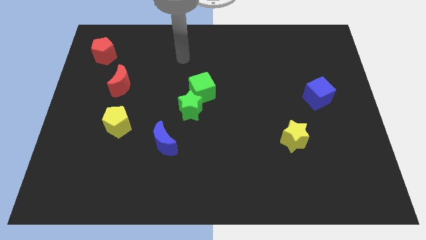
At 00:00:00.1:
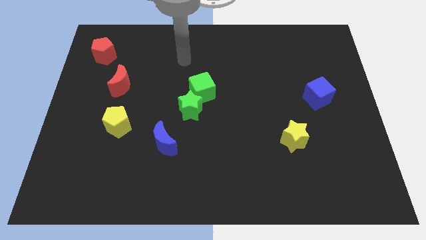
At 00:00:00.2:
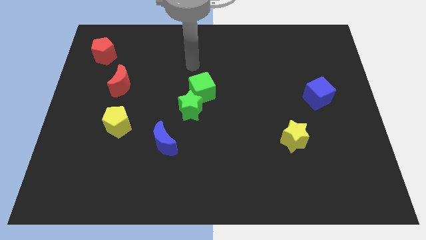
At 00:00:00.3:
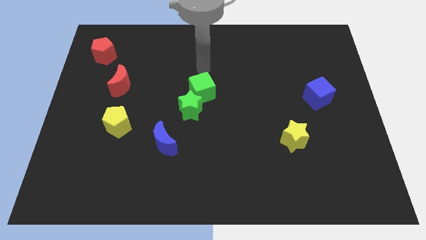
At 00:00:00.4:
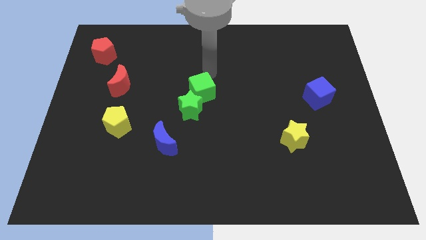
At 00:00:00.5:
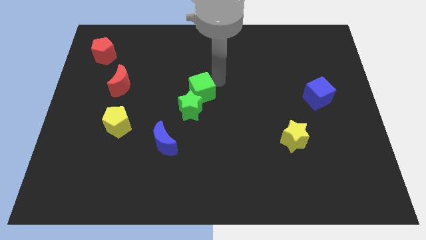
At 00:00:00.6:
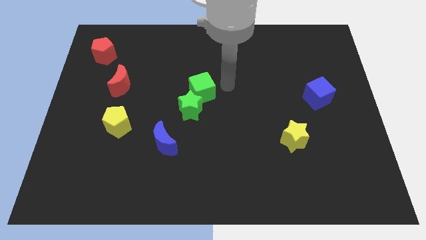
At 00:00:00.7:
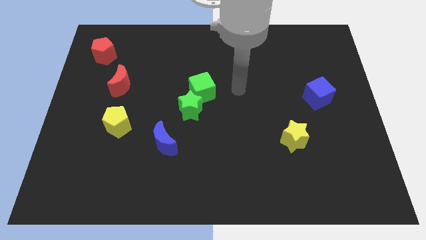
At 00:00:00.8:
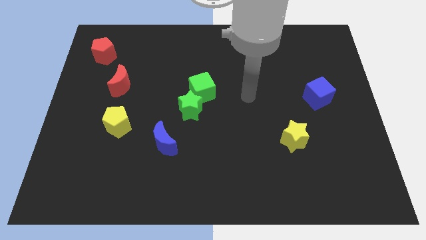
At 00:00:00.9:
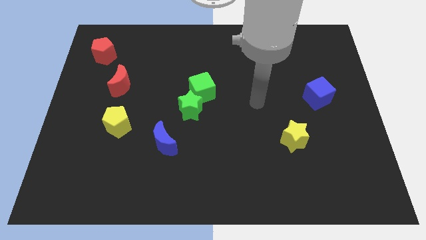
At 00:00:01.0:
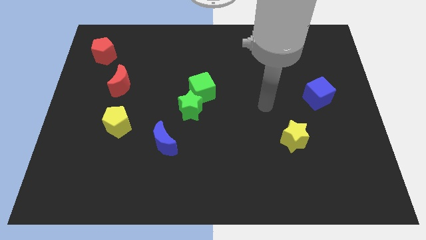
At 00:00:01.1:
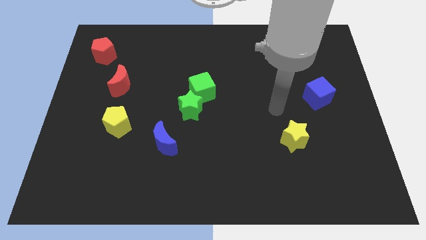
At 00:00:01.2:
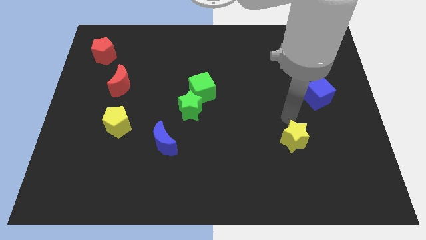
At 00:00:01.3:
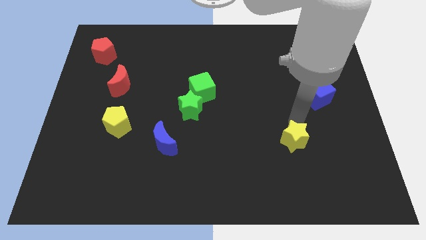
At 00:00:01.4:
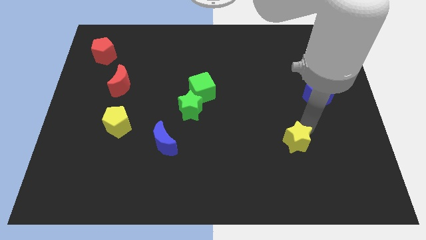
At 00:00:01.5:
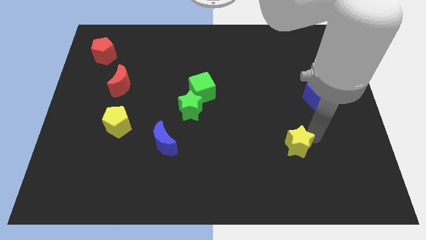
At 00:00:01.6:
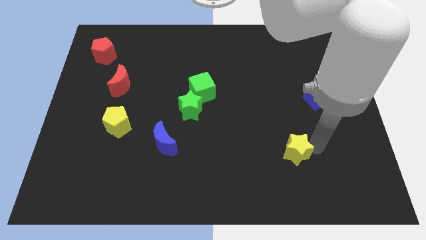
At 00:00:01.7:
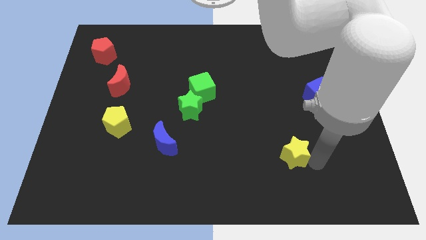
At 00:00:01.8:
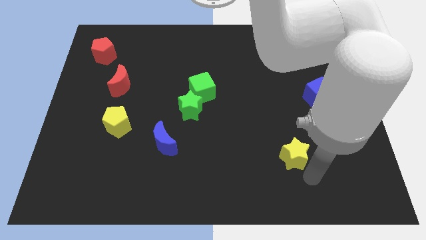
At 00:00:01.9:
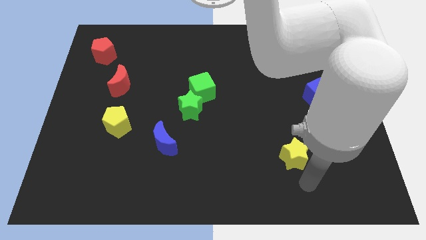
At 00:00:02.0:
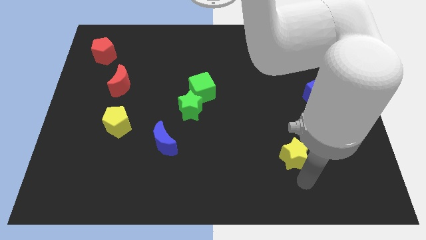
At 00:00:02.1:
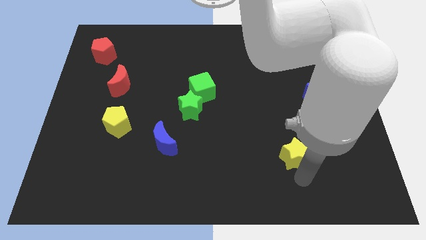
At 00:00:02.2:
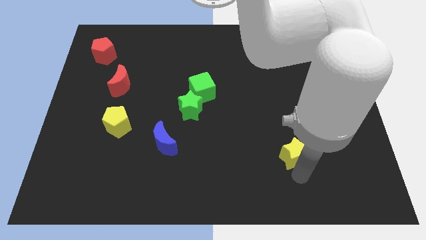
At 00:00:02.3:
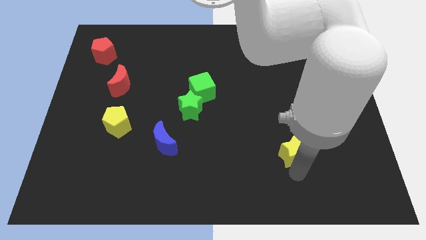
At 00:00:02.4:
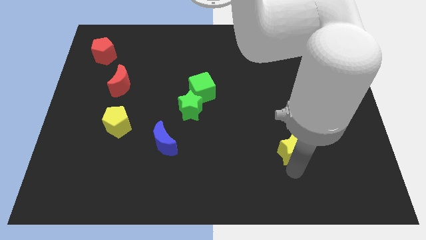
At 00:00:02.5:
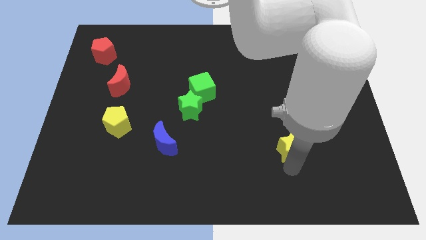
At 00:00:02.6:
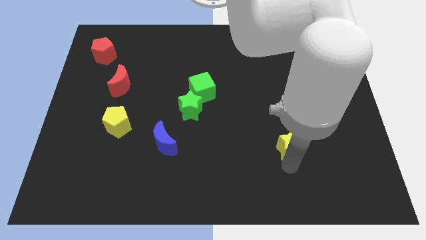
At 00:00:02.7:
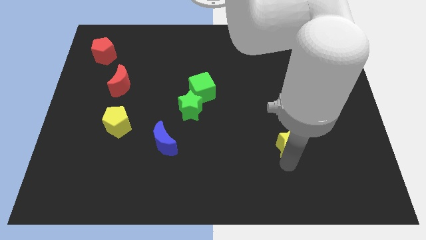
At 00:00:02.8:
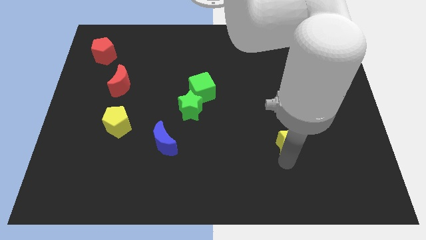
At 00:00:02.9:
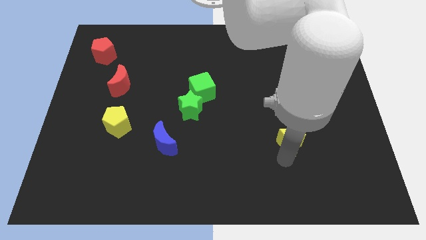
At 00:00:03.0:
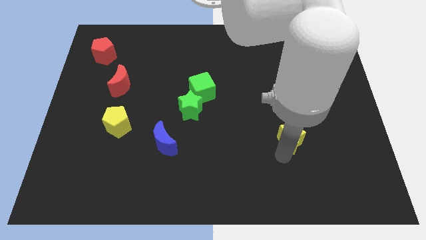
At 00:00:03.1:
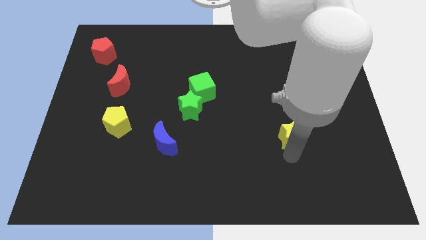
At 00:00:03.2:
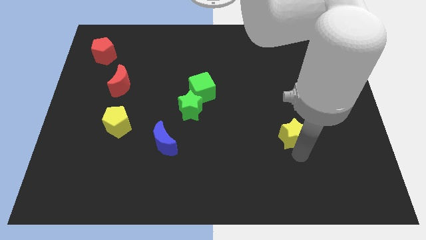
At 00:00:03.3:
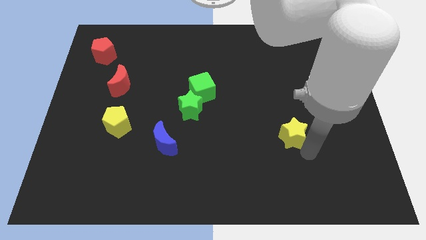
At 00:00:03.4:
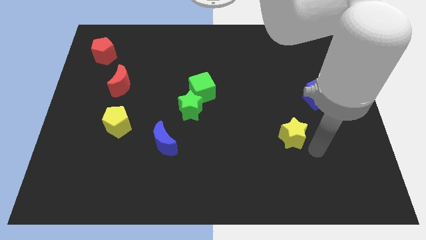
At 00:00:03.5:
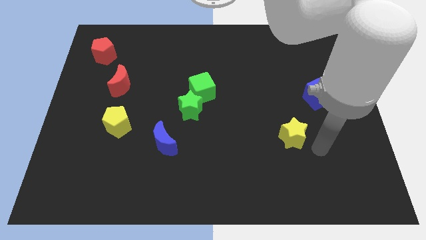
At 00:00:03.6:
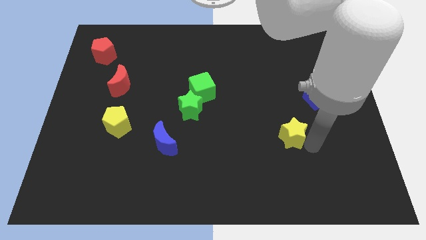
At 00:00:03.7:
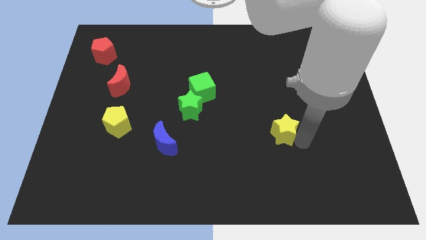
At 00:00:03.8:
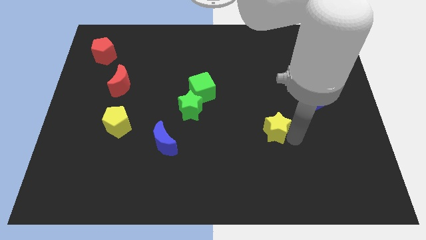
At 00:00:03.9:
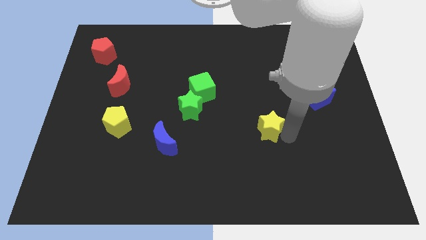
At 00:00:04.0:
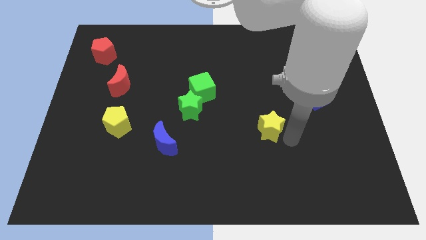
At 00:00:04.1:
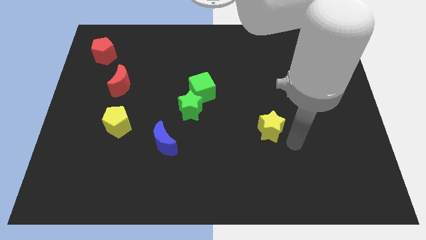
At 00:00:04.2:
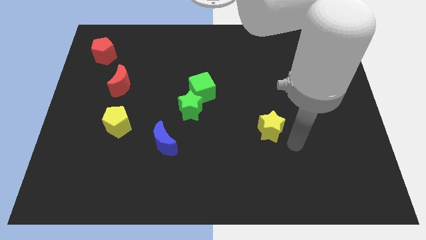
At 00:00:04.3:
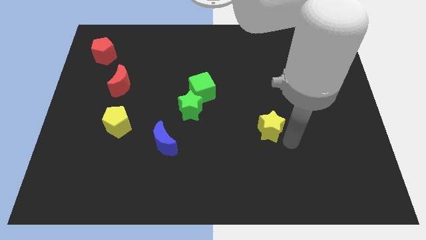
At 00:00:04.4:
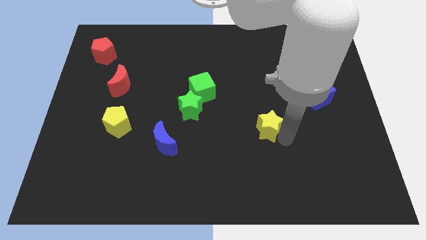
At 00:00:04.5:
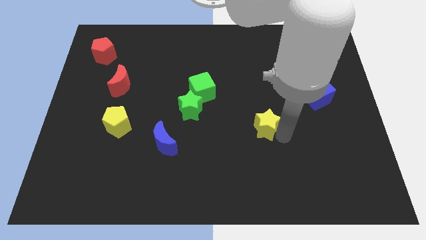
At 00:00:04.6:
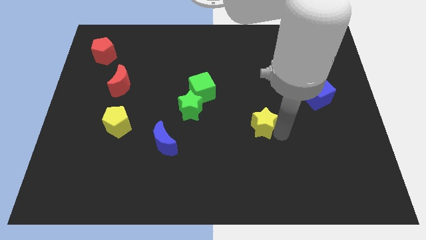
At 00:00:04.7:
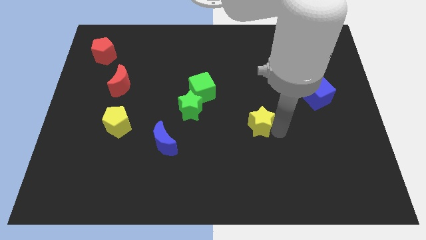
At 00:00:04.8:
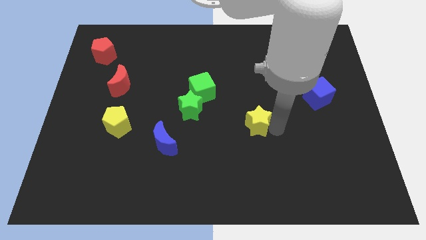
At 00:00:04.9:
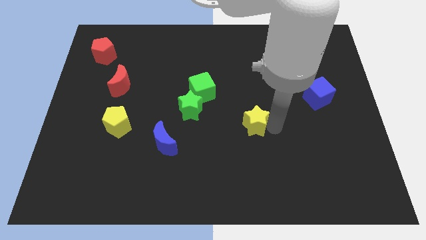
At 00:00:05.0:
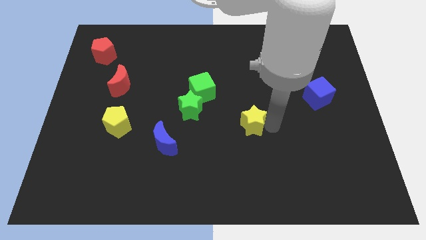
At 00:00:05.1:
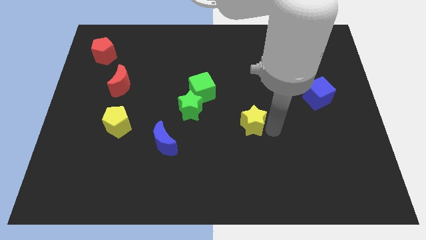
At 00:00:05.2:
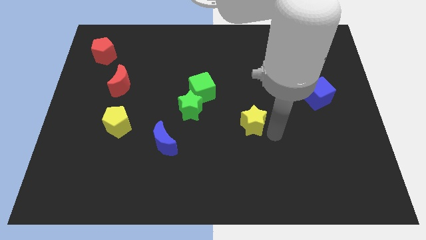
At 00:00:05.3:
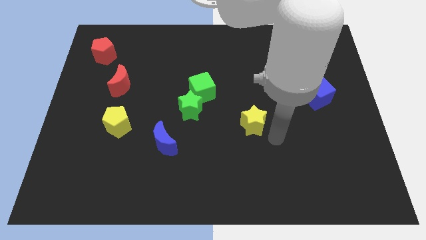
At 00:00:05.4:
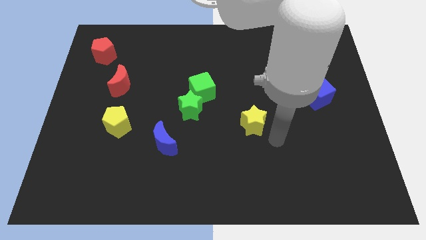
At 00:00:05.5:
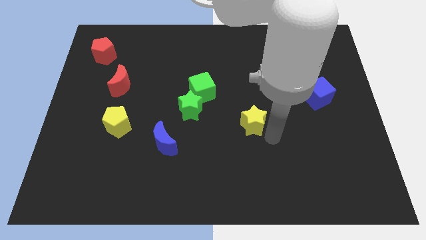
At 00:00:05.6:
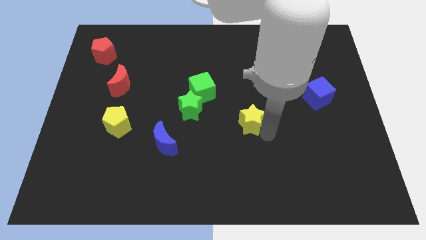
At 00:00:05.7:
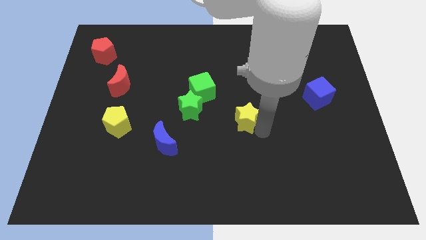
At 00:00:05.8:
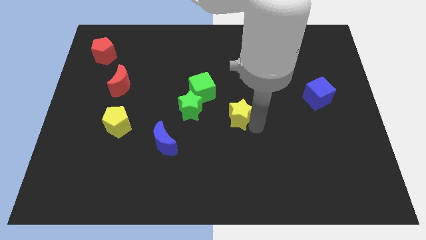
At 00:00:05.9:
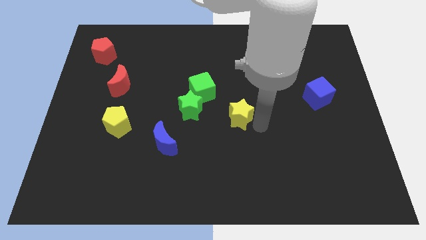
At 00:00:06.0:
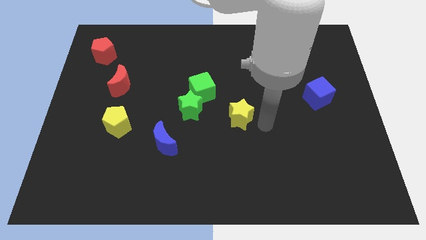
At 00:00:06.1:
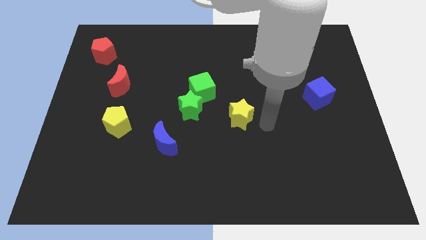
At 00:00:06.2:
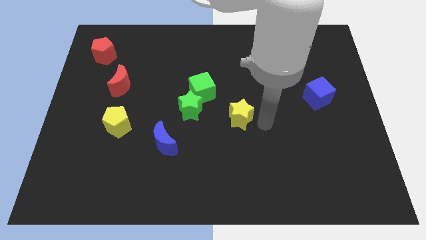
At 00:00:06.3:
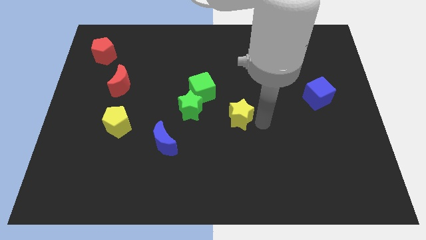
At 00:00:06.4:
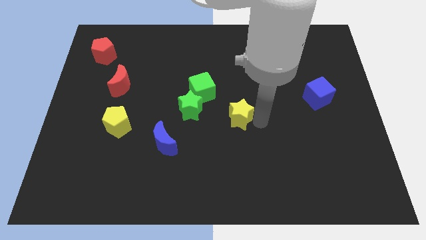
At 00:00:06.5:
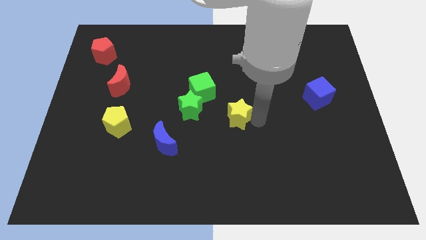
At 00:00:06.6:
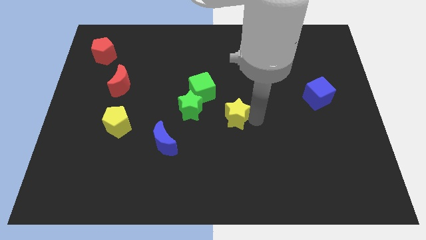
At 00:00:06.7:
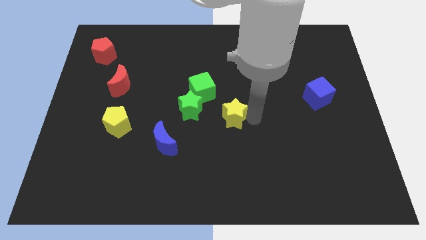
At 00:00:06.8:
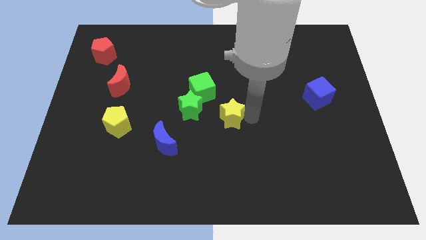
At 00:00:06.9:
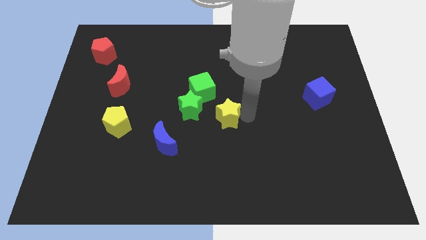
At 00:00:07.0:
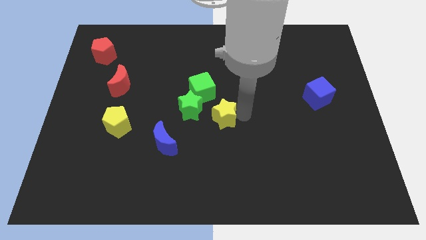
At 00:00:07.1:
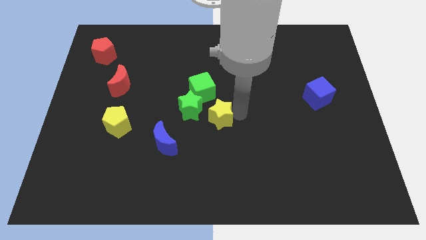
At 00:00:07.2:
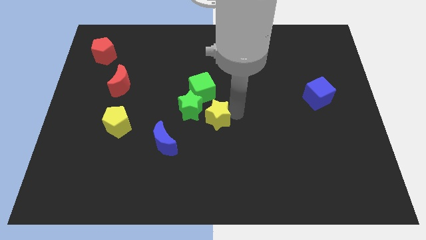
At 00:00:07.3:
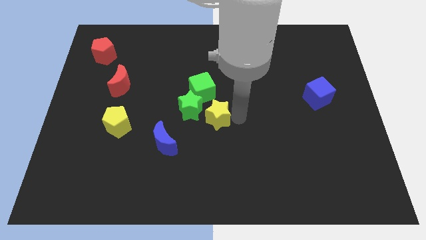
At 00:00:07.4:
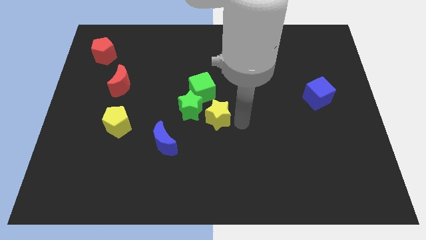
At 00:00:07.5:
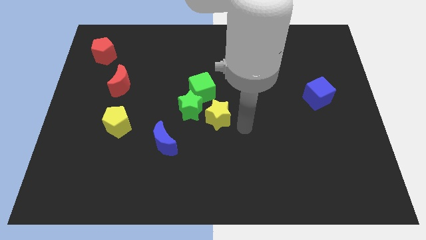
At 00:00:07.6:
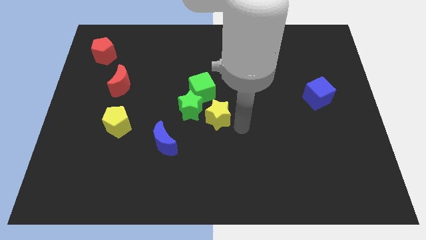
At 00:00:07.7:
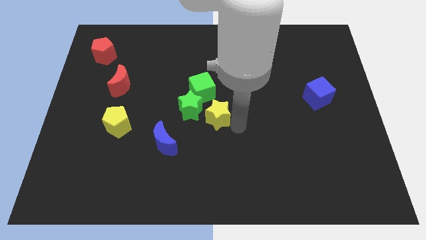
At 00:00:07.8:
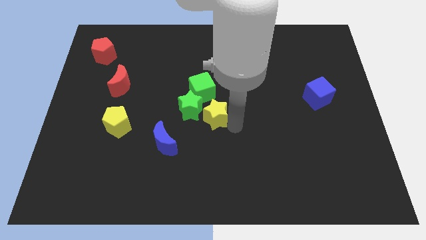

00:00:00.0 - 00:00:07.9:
put the yellow star to the green star
